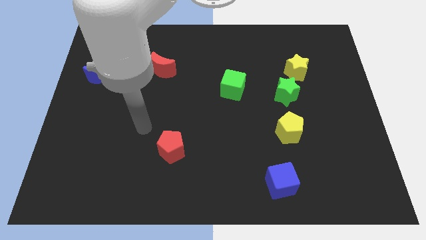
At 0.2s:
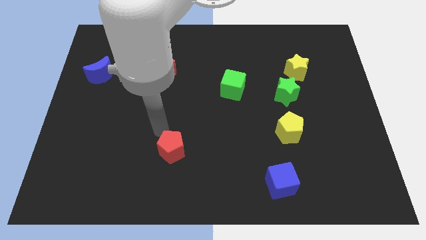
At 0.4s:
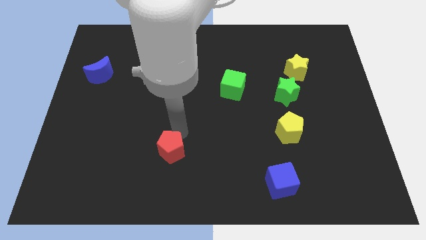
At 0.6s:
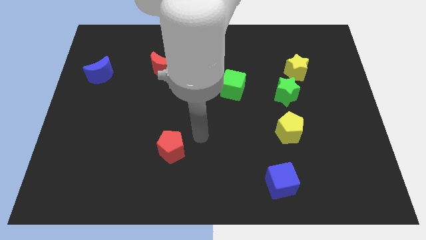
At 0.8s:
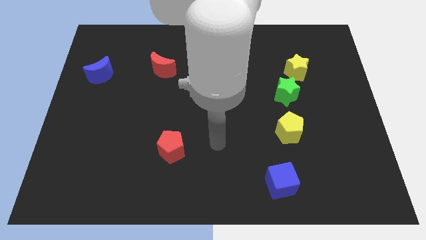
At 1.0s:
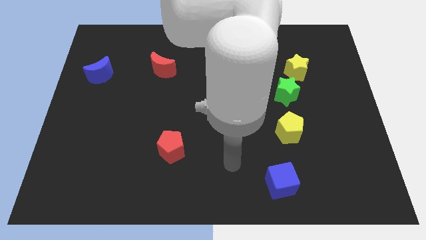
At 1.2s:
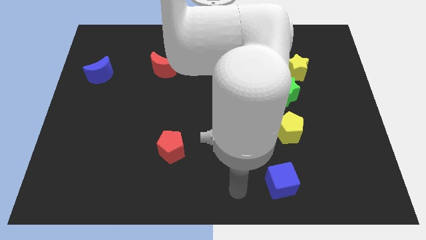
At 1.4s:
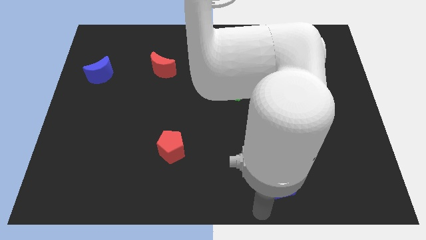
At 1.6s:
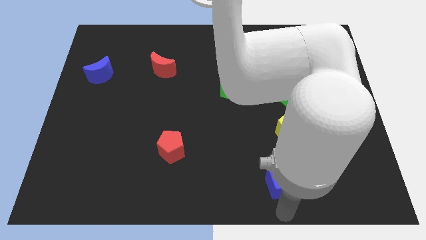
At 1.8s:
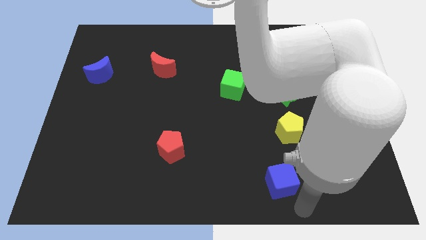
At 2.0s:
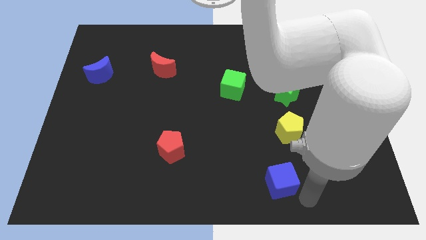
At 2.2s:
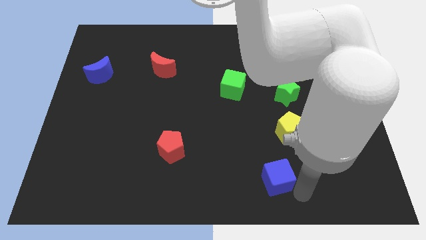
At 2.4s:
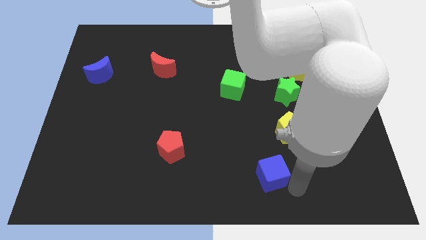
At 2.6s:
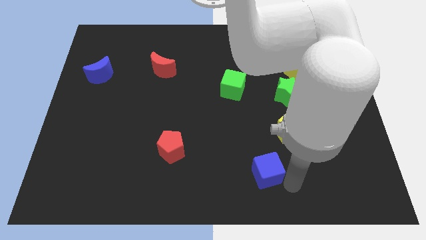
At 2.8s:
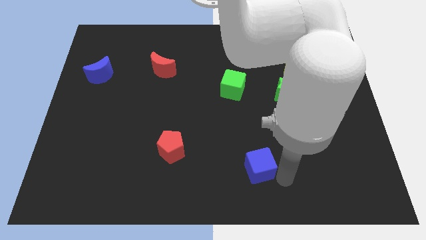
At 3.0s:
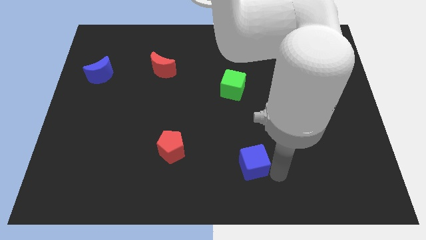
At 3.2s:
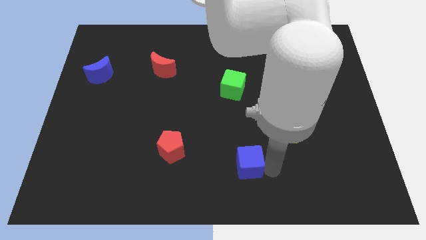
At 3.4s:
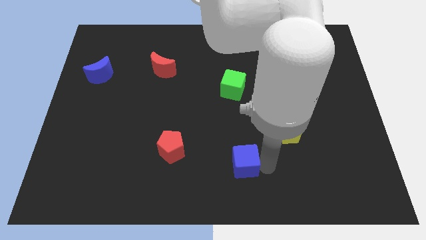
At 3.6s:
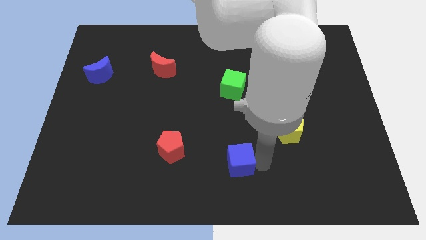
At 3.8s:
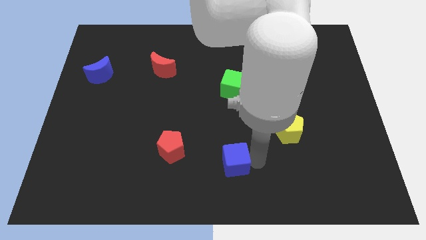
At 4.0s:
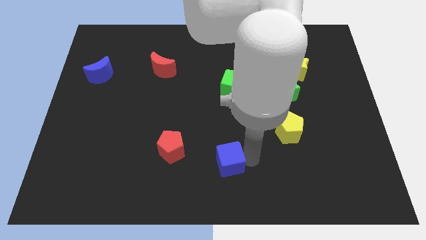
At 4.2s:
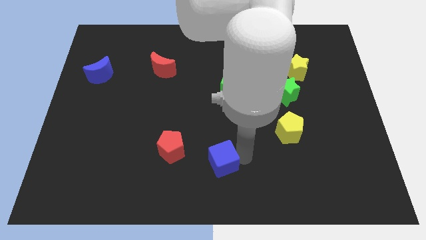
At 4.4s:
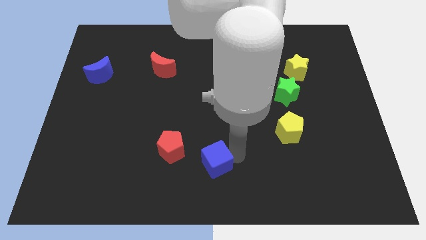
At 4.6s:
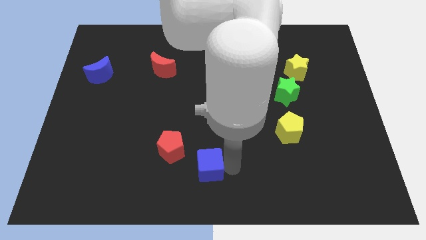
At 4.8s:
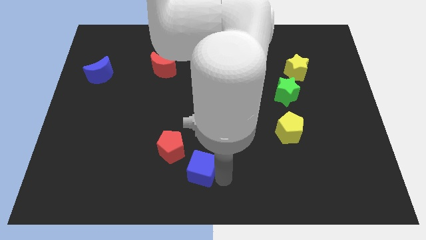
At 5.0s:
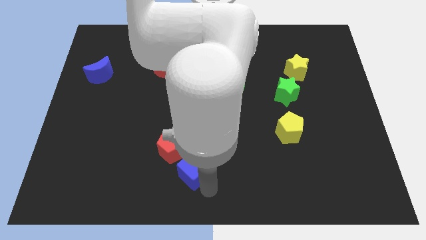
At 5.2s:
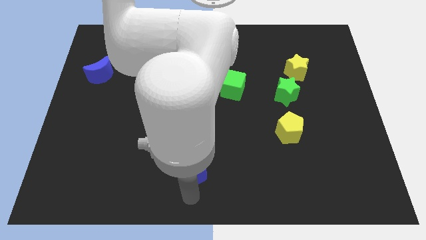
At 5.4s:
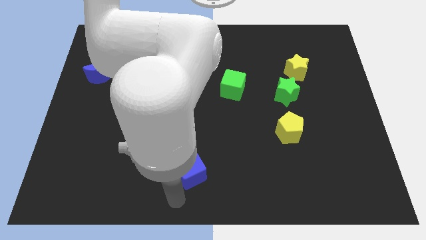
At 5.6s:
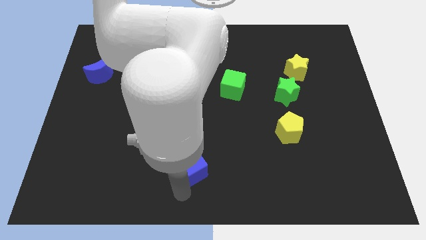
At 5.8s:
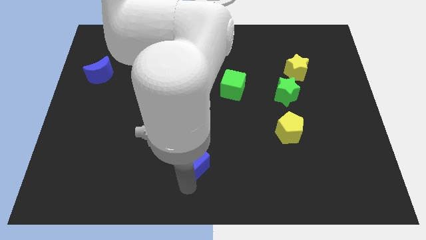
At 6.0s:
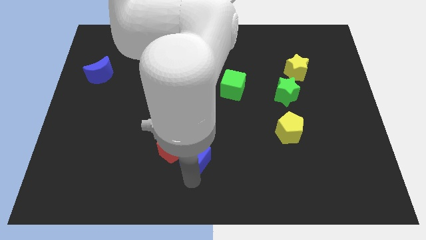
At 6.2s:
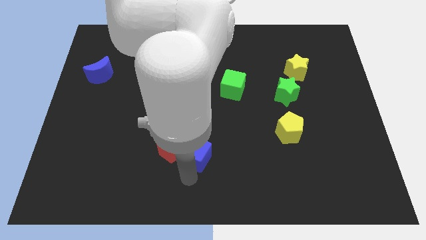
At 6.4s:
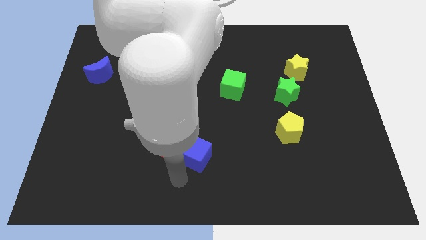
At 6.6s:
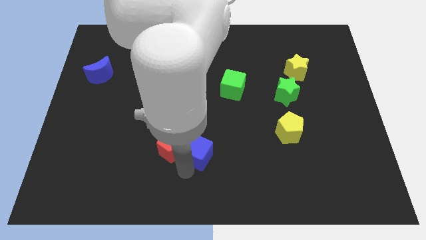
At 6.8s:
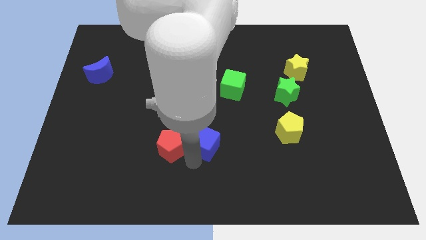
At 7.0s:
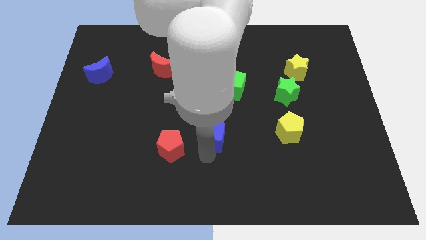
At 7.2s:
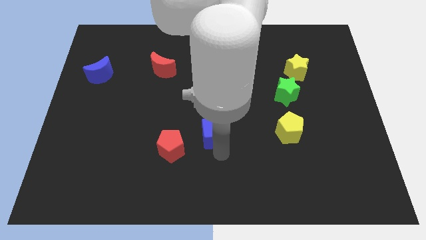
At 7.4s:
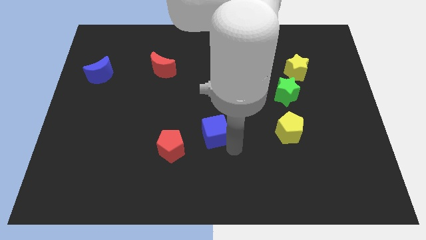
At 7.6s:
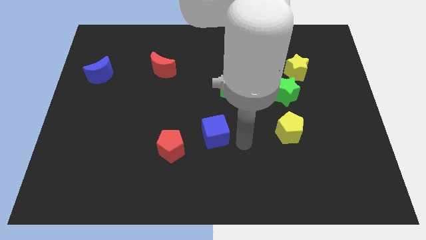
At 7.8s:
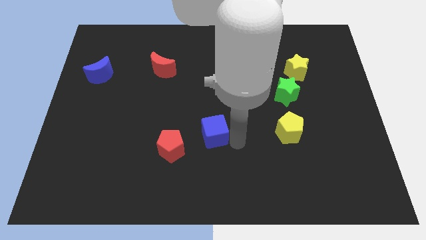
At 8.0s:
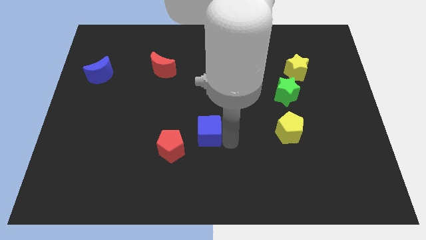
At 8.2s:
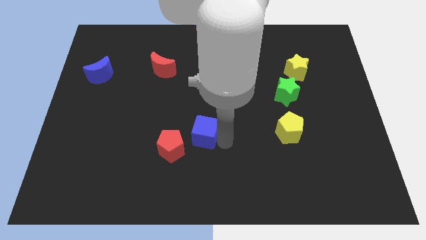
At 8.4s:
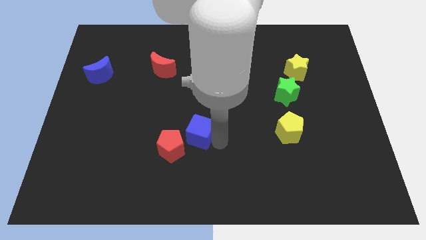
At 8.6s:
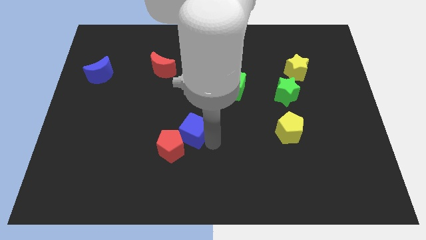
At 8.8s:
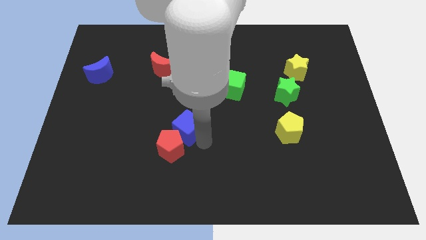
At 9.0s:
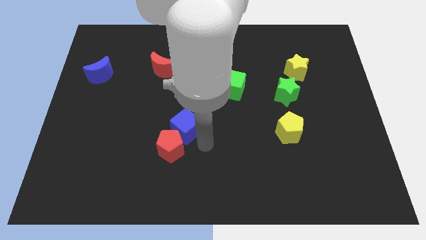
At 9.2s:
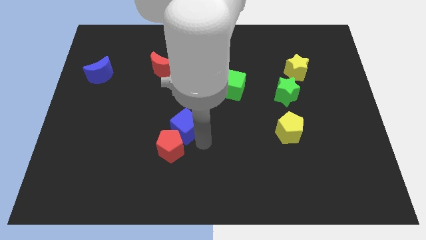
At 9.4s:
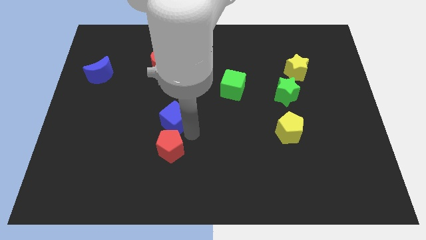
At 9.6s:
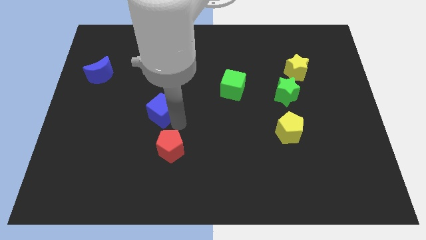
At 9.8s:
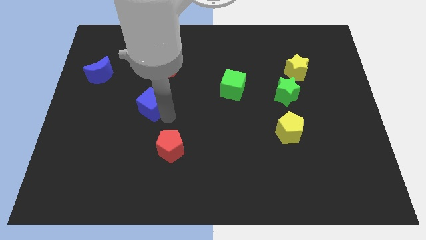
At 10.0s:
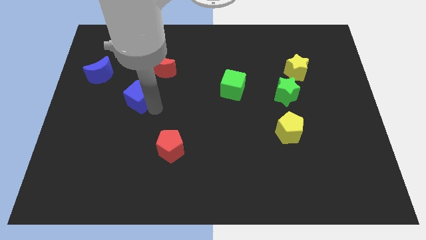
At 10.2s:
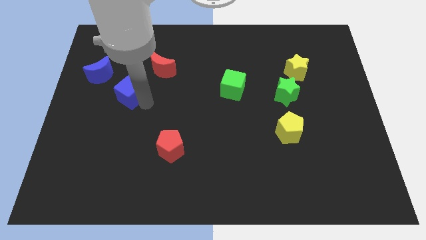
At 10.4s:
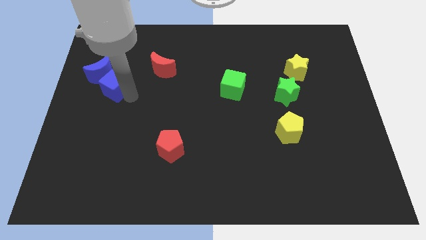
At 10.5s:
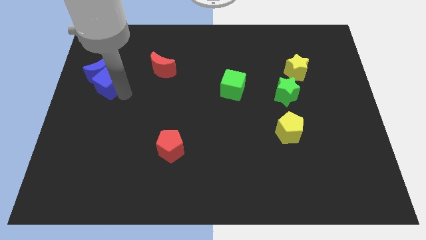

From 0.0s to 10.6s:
slide the blue cube next to the blue moon

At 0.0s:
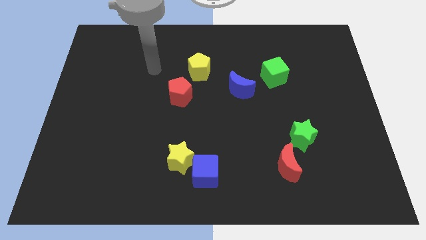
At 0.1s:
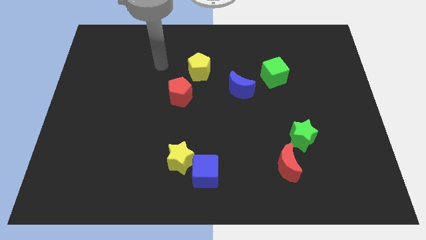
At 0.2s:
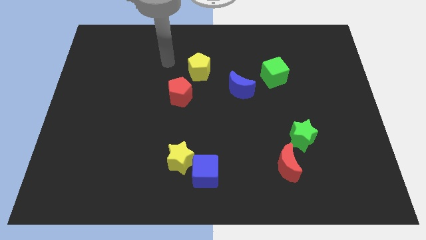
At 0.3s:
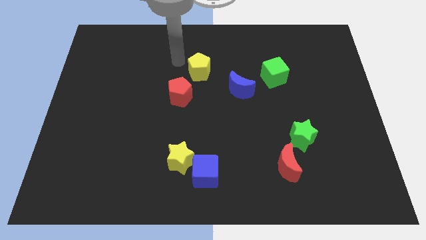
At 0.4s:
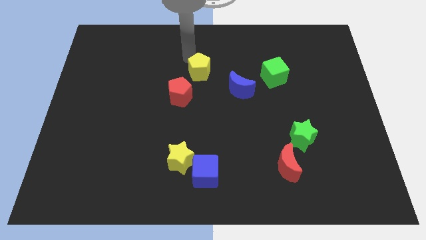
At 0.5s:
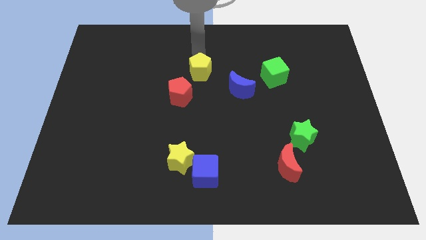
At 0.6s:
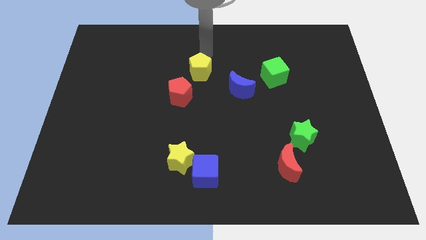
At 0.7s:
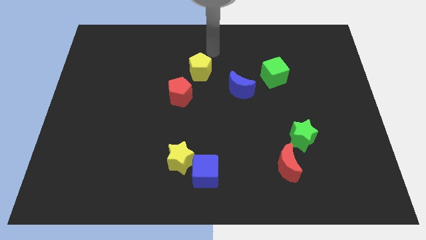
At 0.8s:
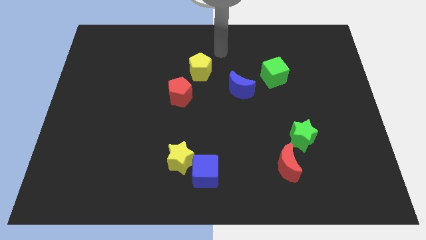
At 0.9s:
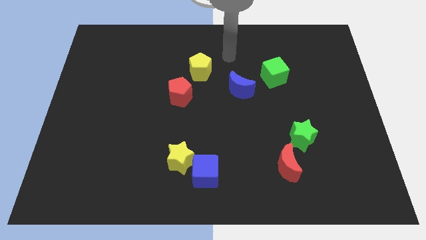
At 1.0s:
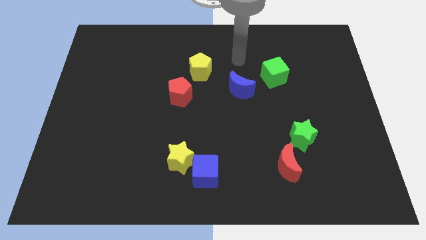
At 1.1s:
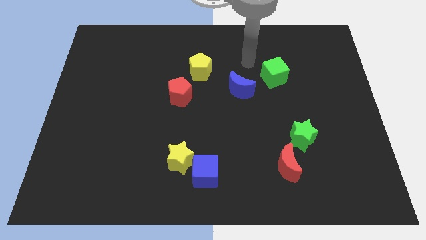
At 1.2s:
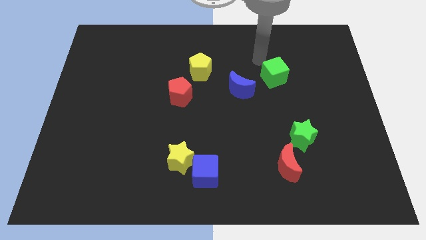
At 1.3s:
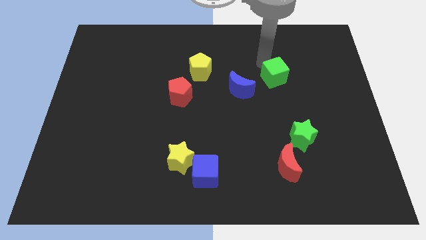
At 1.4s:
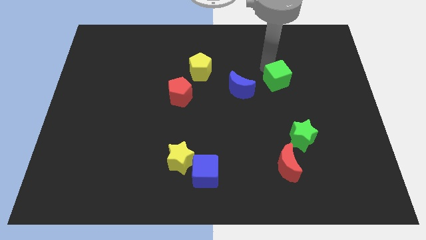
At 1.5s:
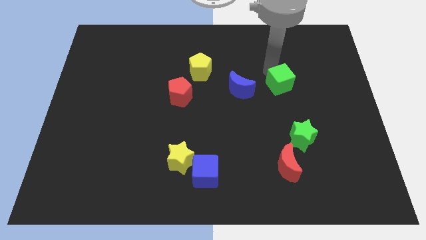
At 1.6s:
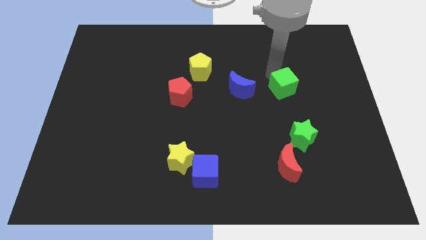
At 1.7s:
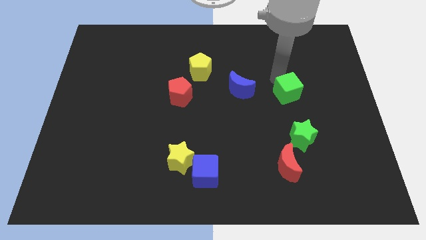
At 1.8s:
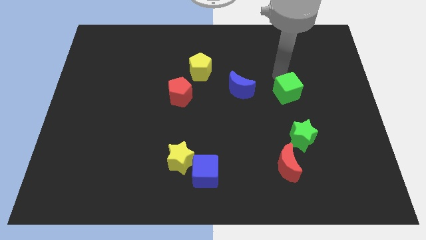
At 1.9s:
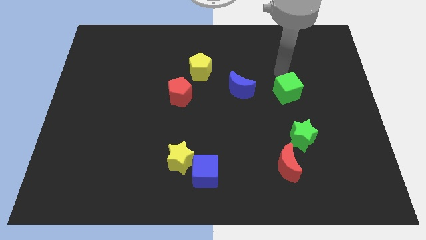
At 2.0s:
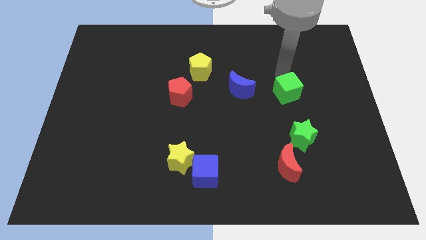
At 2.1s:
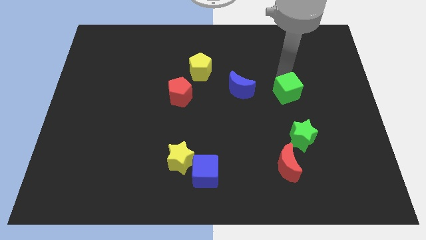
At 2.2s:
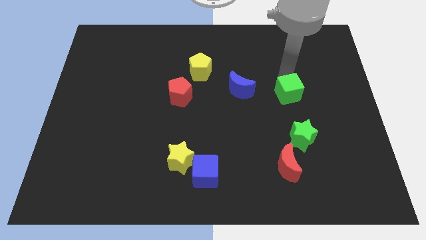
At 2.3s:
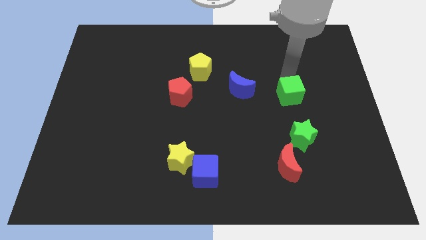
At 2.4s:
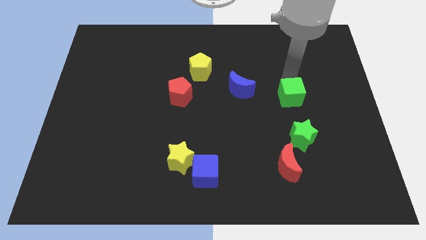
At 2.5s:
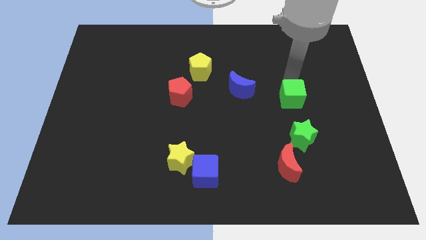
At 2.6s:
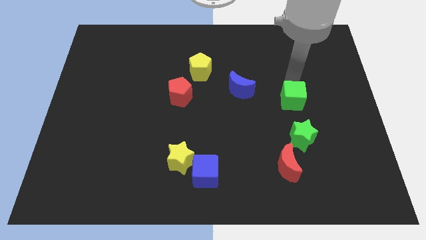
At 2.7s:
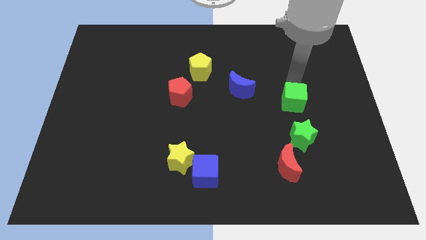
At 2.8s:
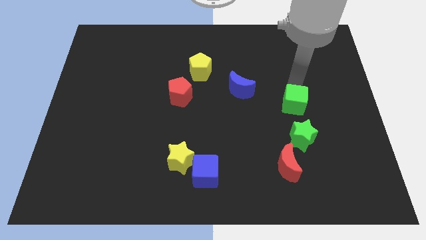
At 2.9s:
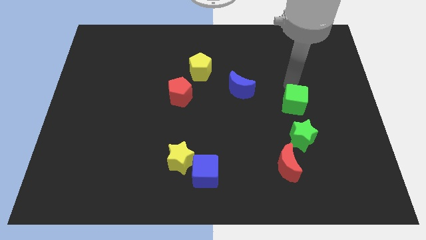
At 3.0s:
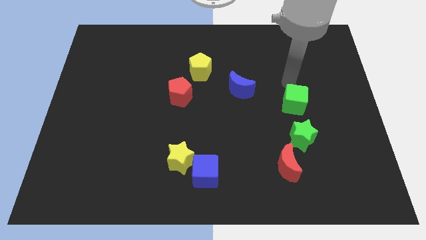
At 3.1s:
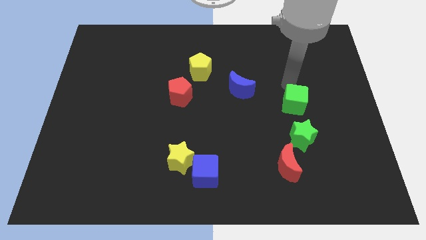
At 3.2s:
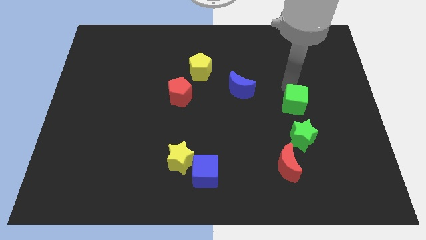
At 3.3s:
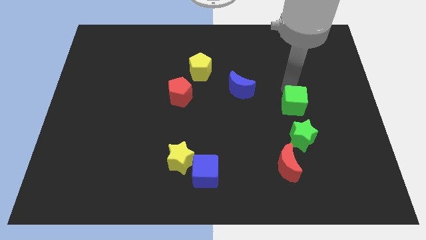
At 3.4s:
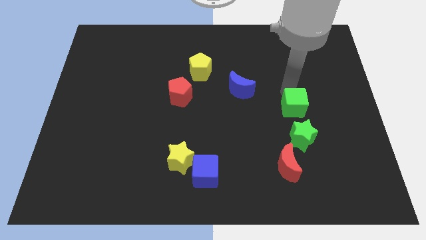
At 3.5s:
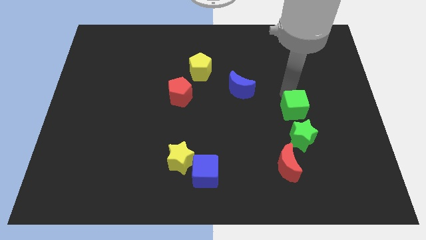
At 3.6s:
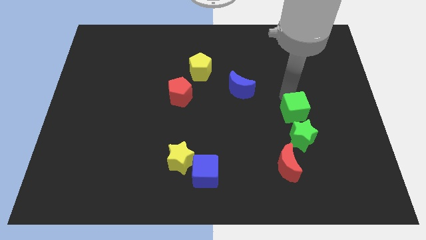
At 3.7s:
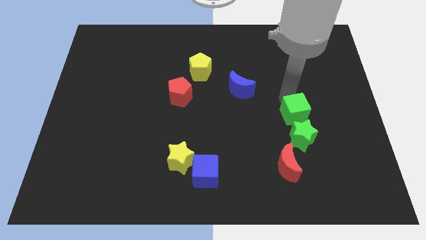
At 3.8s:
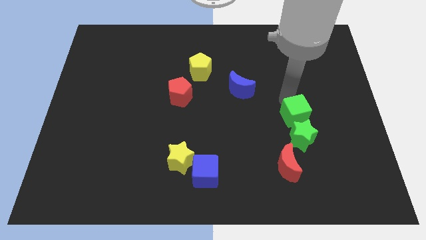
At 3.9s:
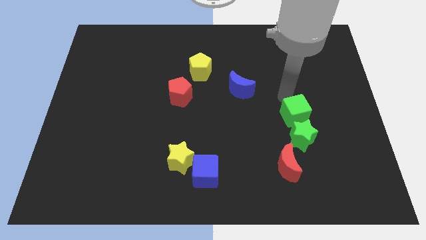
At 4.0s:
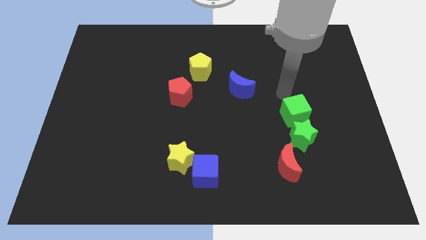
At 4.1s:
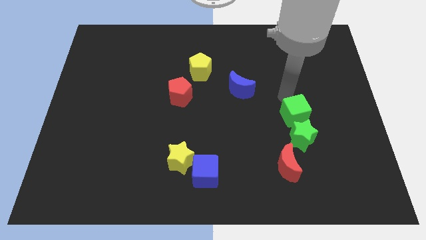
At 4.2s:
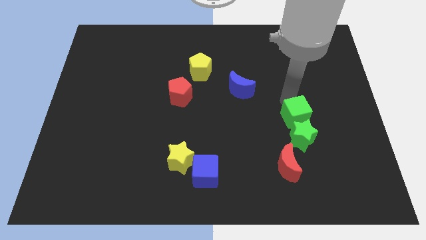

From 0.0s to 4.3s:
put the green cube towards the green star
